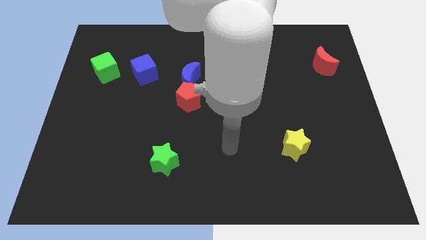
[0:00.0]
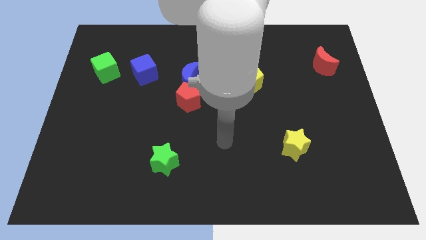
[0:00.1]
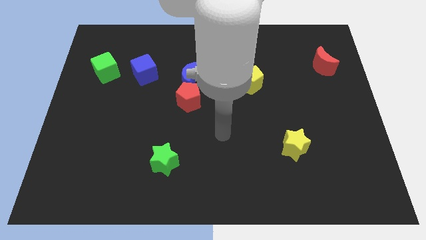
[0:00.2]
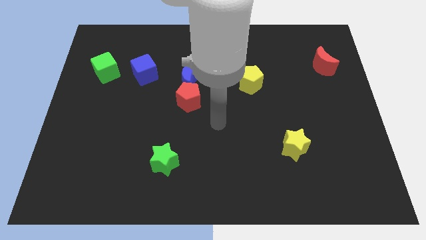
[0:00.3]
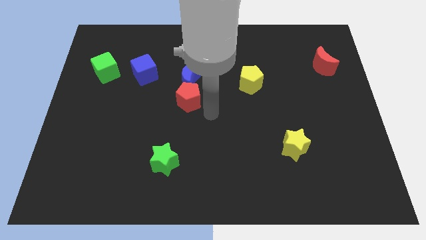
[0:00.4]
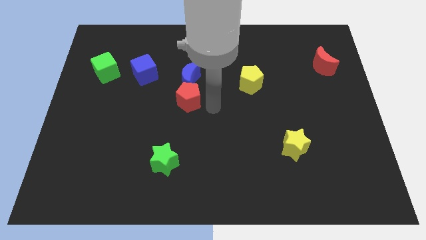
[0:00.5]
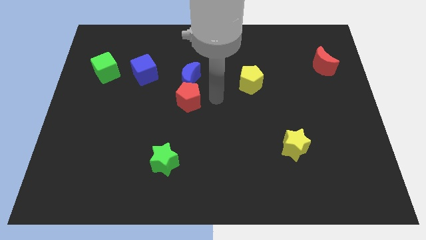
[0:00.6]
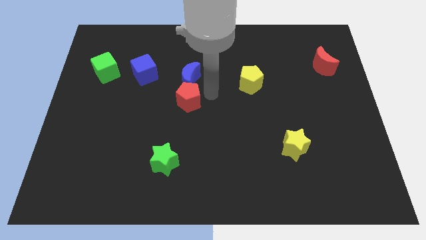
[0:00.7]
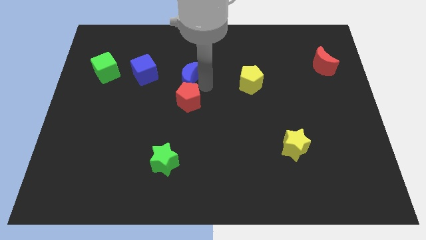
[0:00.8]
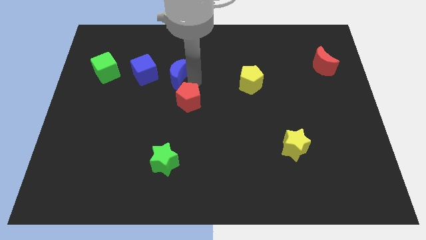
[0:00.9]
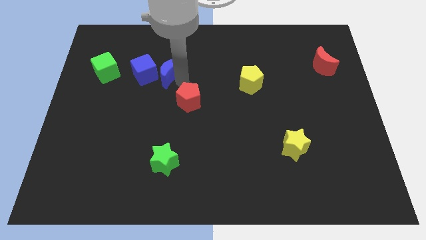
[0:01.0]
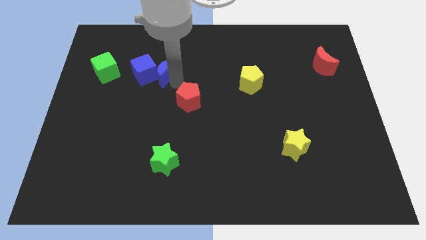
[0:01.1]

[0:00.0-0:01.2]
separate the red pentagon from the blue moon

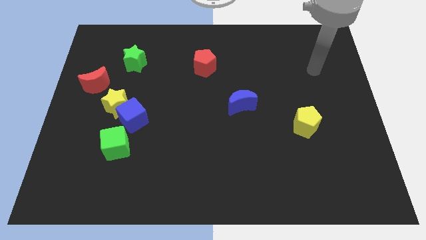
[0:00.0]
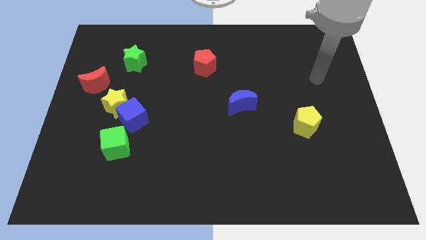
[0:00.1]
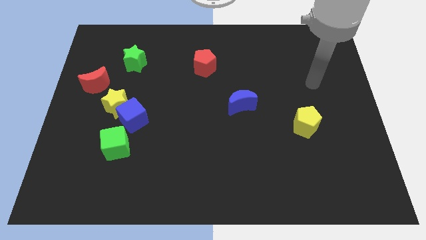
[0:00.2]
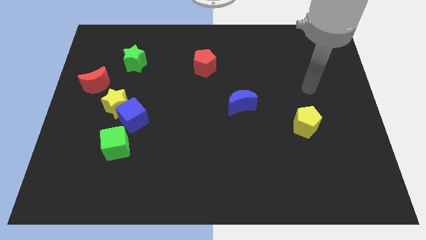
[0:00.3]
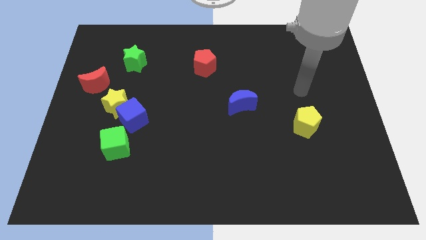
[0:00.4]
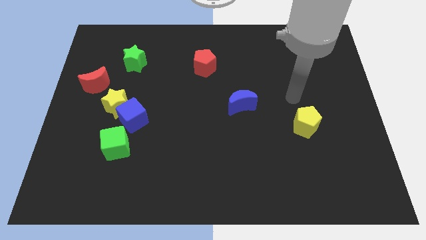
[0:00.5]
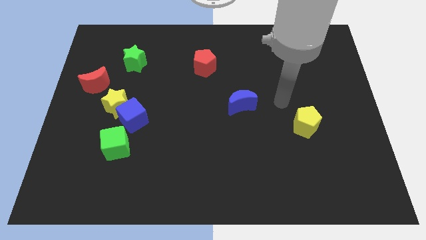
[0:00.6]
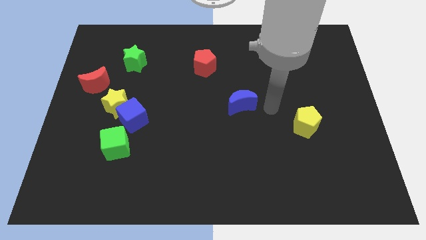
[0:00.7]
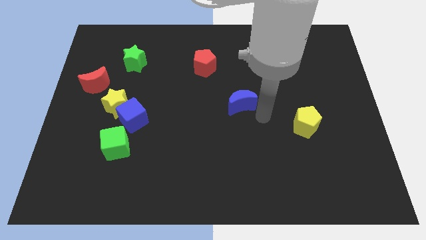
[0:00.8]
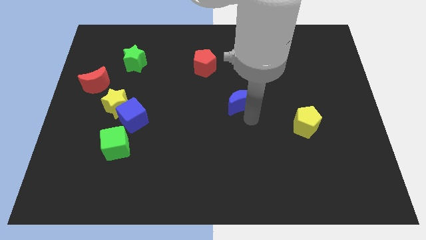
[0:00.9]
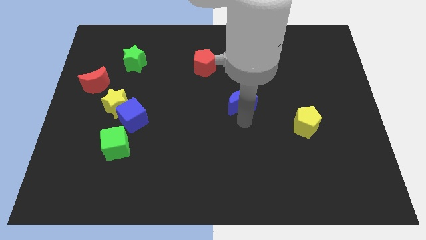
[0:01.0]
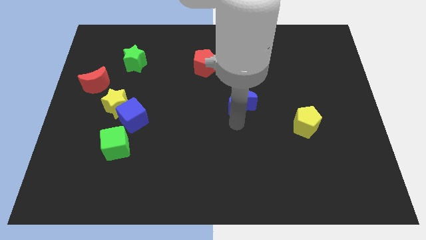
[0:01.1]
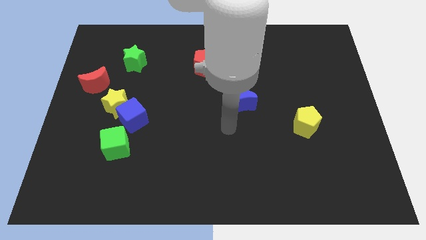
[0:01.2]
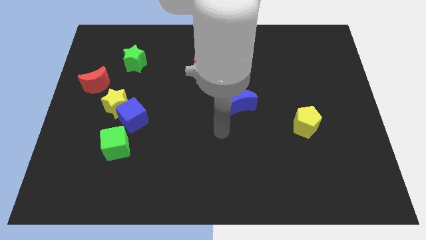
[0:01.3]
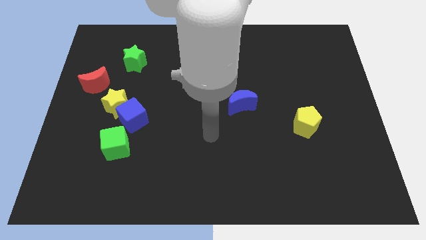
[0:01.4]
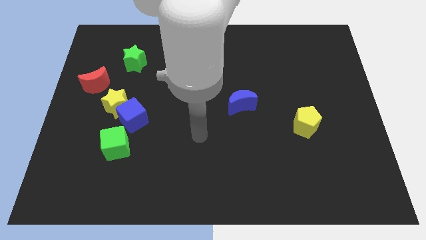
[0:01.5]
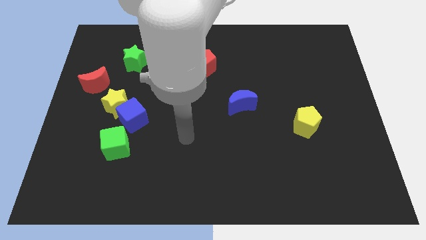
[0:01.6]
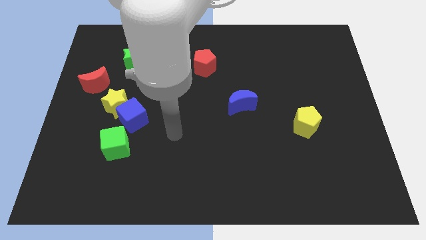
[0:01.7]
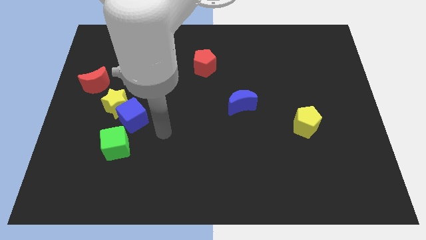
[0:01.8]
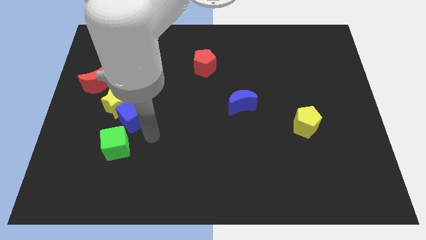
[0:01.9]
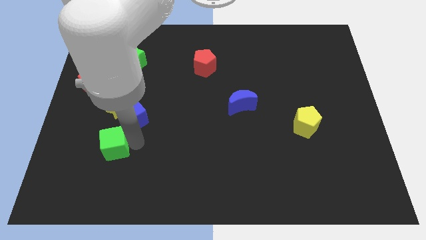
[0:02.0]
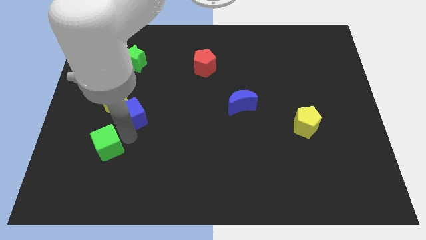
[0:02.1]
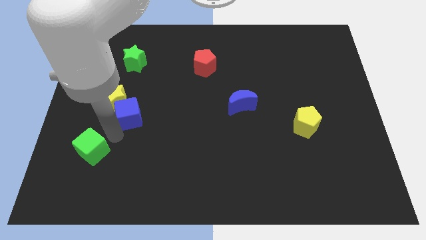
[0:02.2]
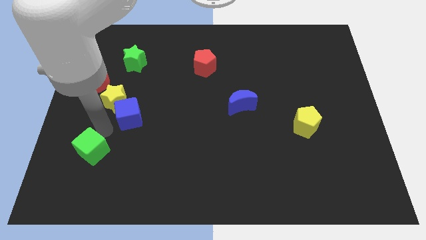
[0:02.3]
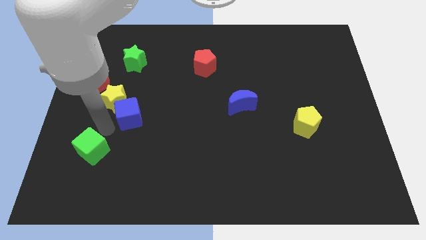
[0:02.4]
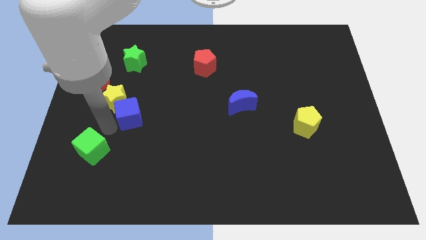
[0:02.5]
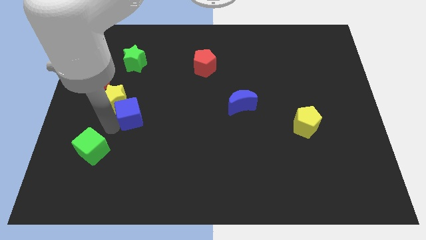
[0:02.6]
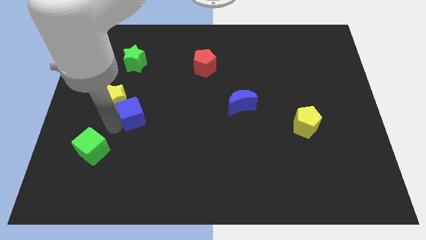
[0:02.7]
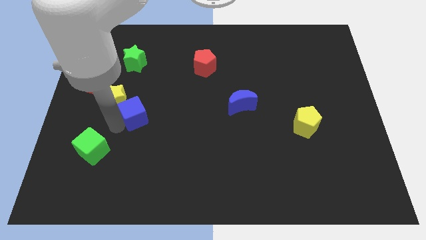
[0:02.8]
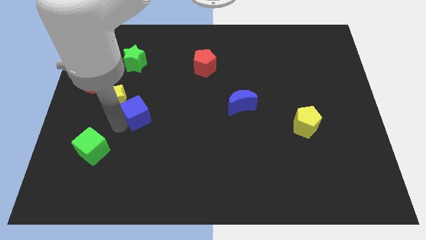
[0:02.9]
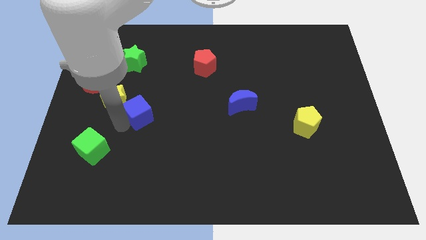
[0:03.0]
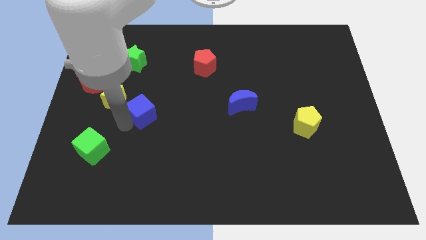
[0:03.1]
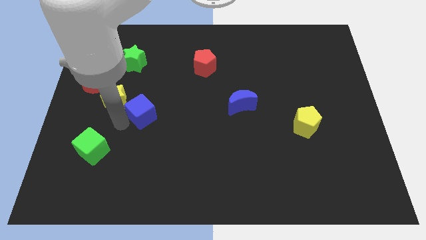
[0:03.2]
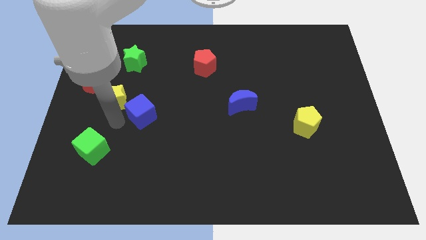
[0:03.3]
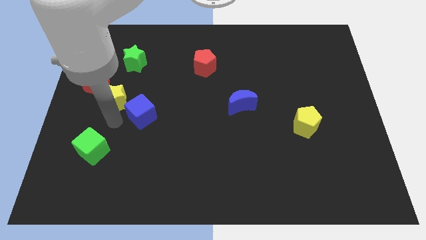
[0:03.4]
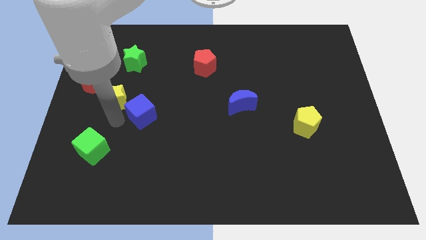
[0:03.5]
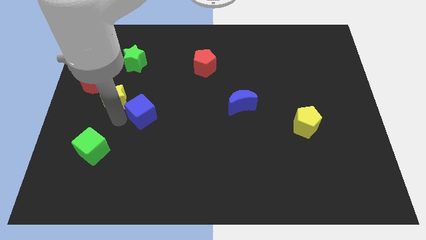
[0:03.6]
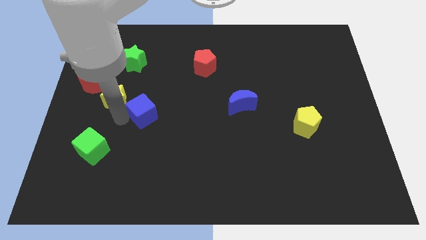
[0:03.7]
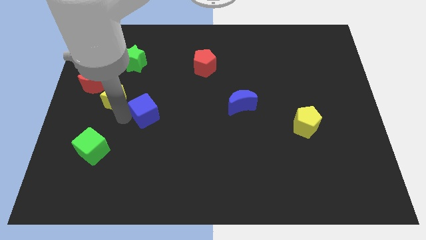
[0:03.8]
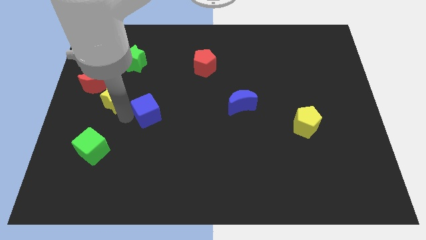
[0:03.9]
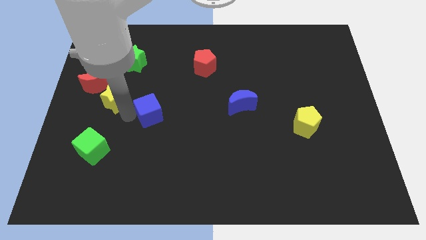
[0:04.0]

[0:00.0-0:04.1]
pull the blue cube apart from the yellow star and green cube

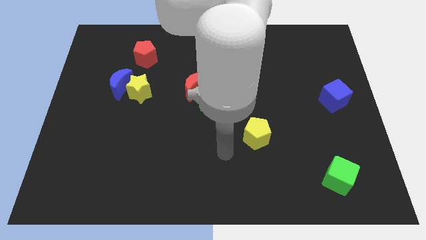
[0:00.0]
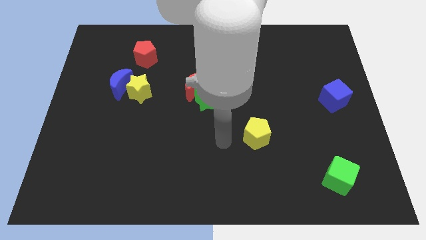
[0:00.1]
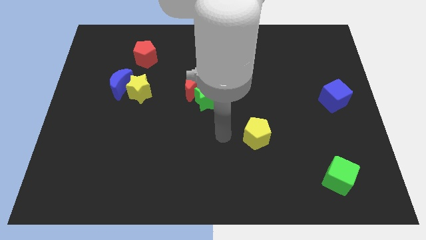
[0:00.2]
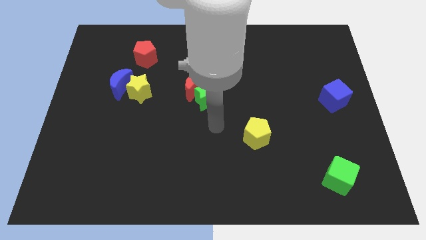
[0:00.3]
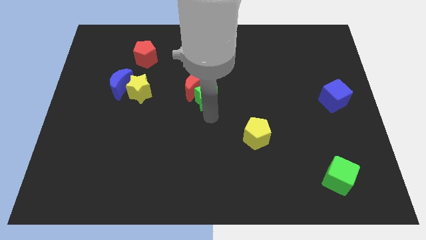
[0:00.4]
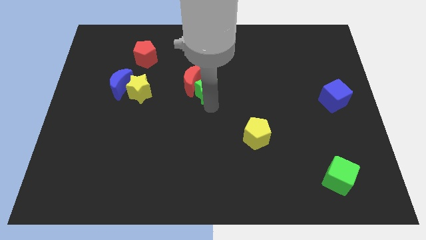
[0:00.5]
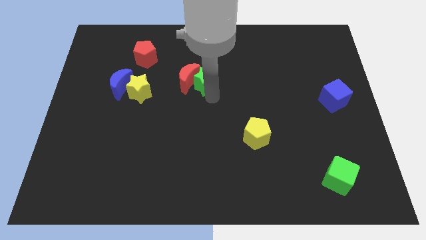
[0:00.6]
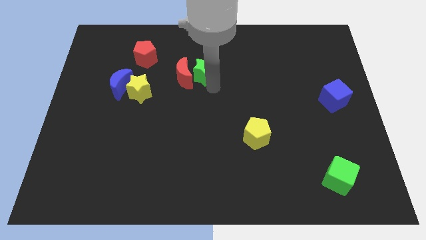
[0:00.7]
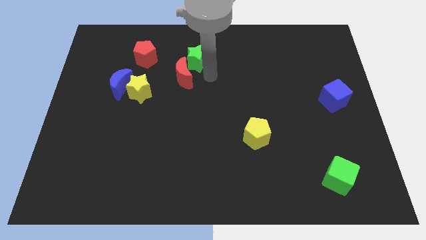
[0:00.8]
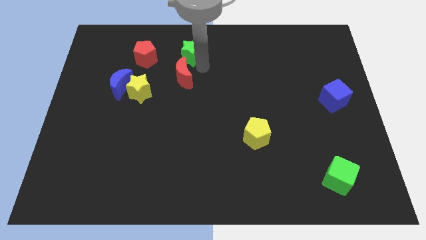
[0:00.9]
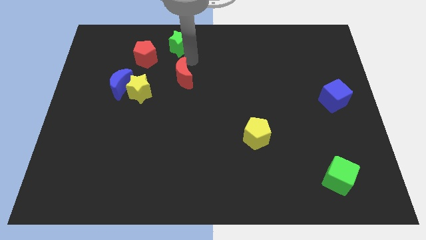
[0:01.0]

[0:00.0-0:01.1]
move the red moon away from the green star

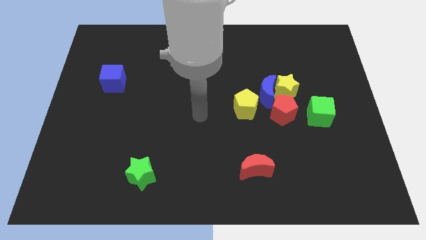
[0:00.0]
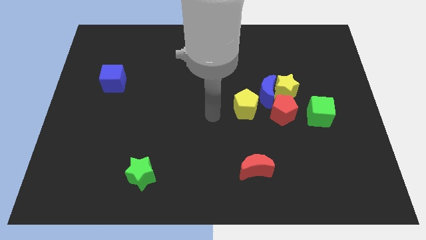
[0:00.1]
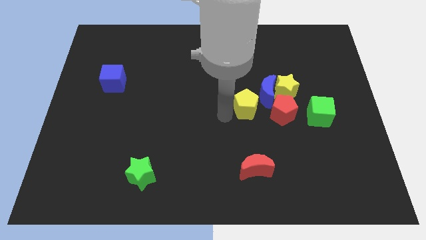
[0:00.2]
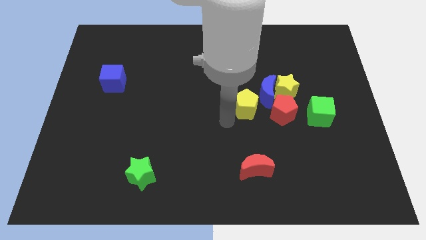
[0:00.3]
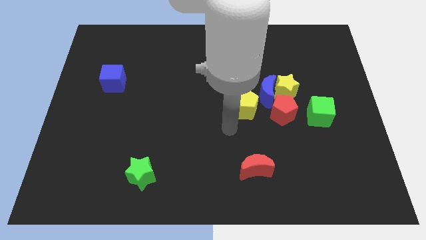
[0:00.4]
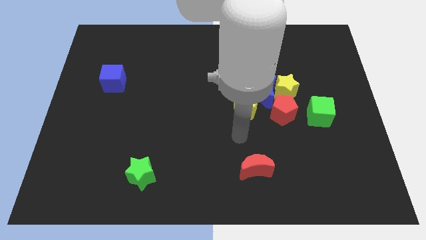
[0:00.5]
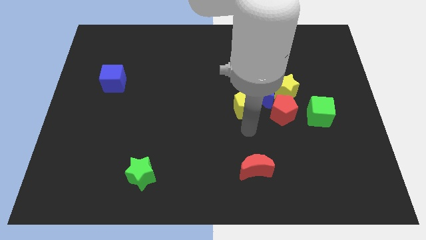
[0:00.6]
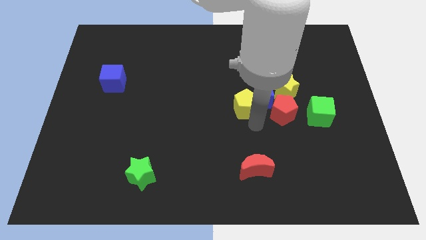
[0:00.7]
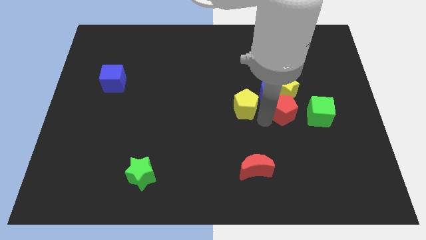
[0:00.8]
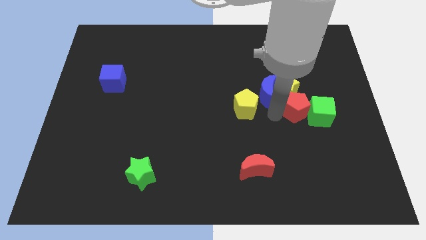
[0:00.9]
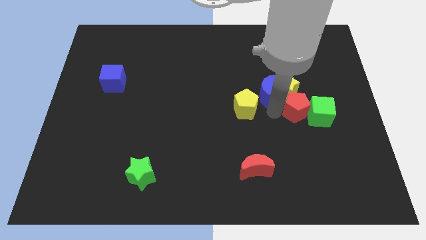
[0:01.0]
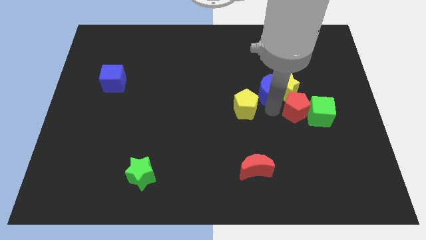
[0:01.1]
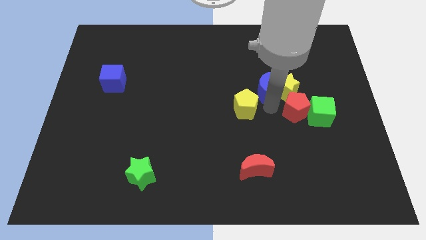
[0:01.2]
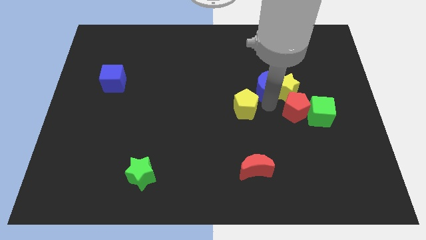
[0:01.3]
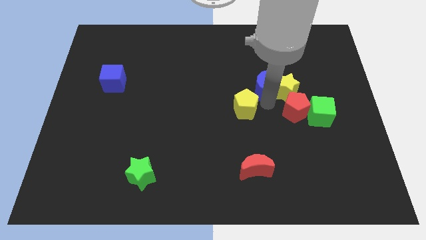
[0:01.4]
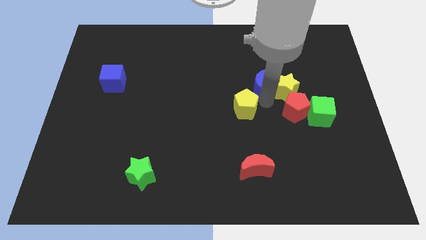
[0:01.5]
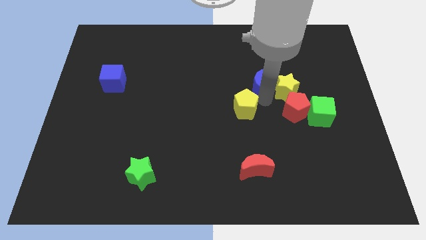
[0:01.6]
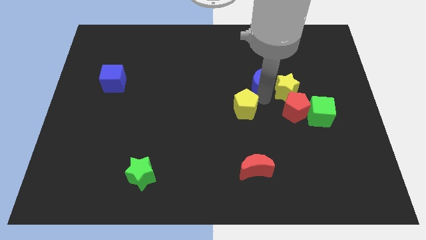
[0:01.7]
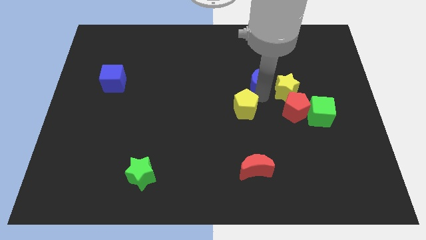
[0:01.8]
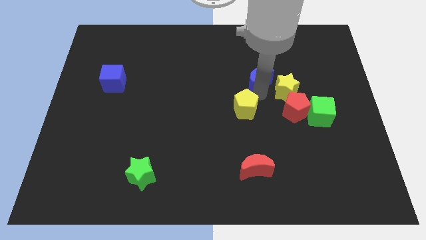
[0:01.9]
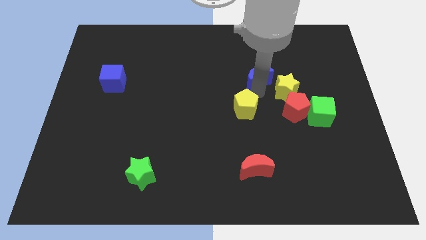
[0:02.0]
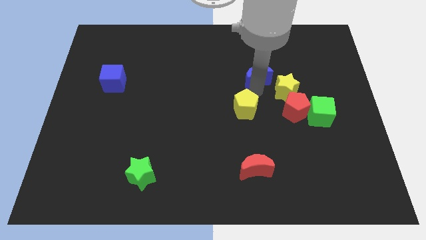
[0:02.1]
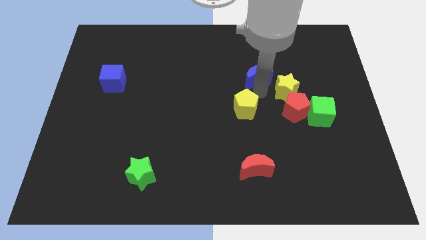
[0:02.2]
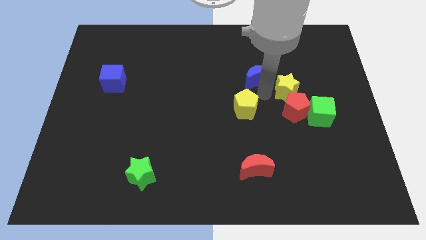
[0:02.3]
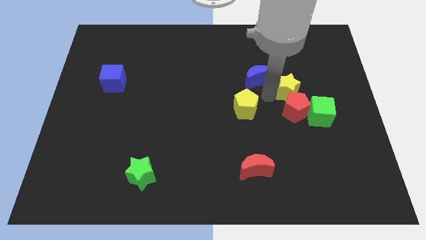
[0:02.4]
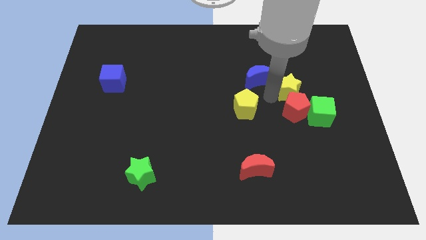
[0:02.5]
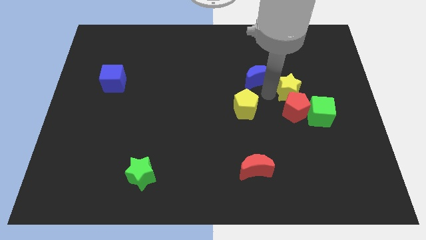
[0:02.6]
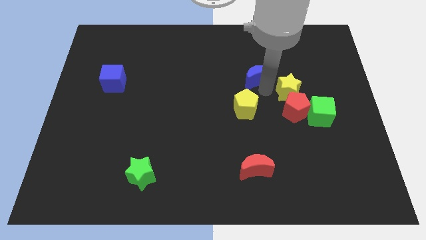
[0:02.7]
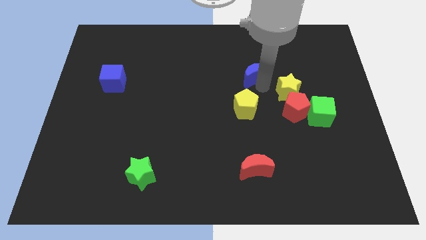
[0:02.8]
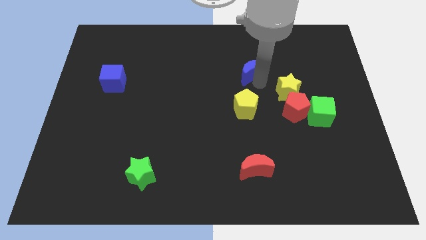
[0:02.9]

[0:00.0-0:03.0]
pull the blue moon apart from the group

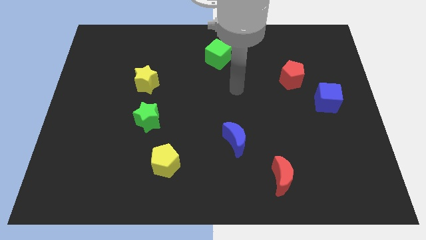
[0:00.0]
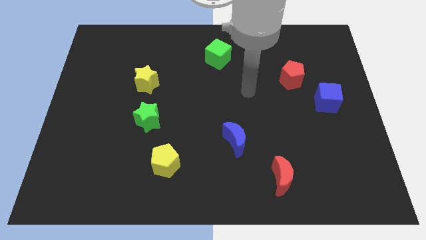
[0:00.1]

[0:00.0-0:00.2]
separate the red pentagon from the blue cube
